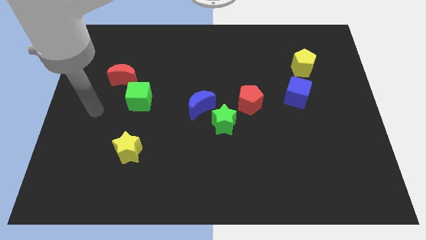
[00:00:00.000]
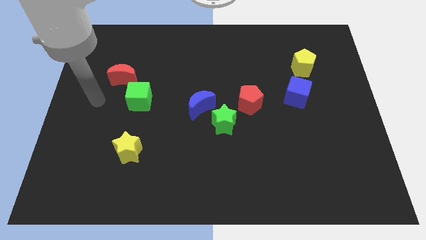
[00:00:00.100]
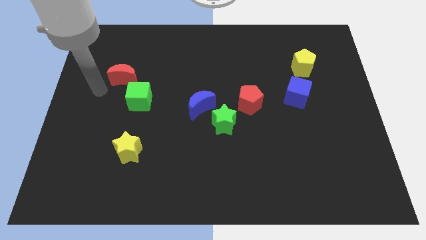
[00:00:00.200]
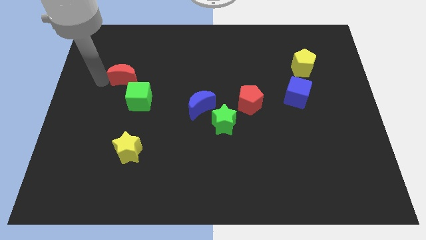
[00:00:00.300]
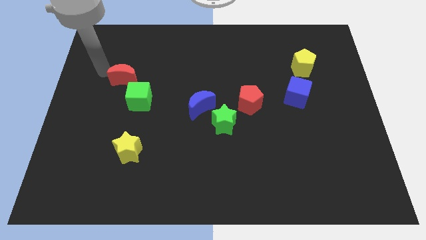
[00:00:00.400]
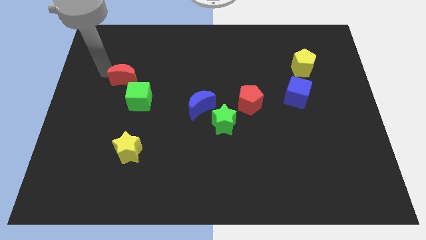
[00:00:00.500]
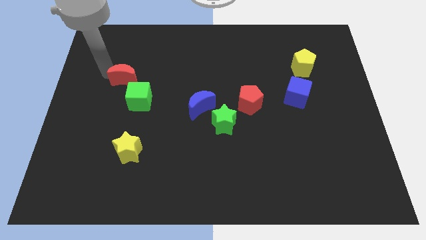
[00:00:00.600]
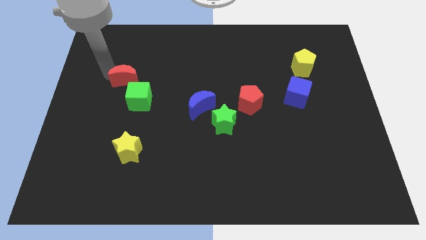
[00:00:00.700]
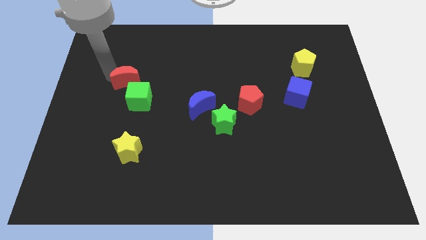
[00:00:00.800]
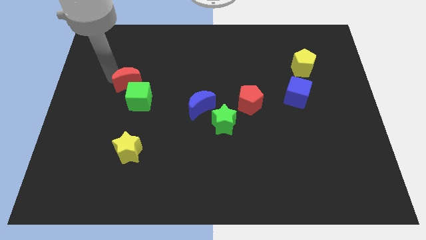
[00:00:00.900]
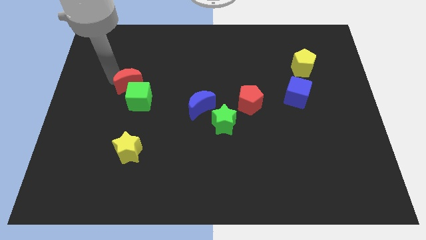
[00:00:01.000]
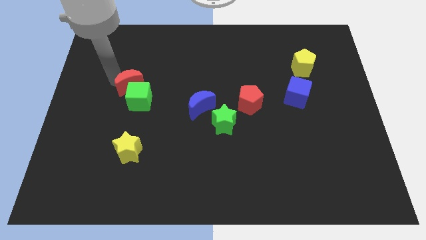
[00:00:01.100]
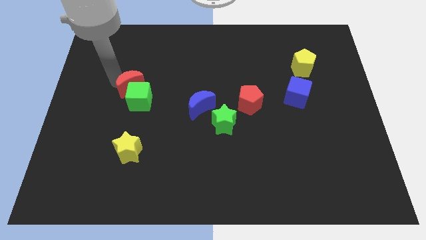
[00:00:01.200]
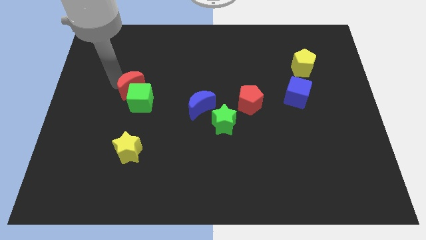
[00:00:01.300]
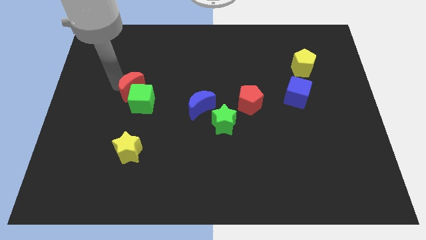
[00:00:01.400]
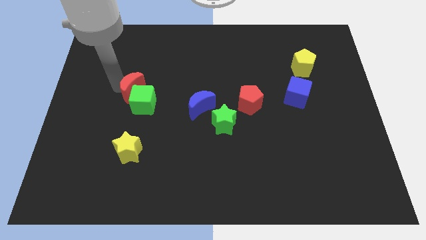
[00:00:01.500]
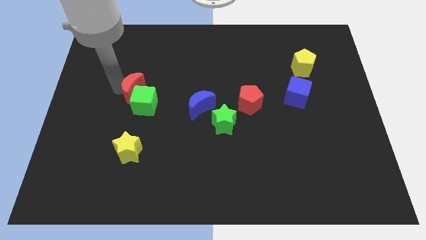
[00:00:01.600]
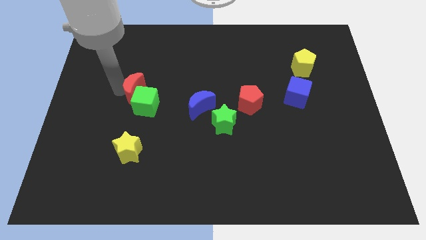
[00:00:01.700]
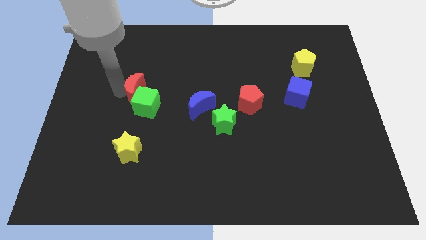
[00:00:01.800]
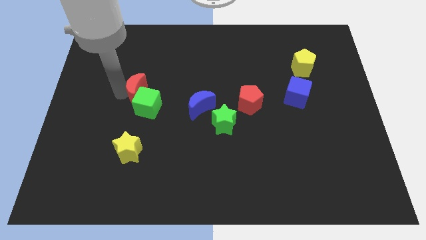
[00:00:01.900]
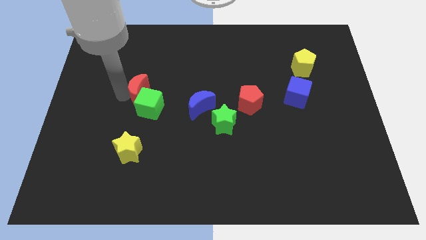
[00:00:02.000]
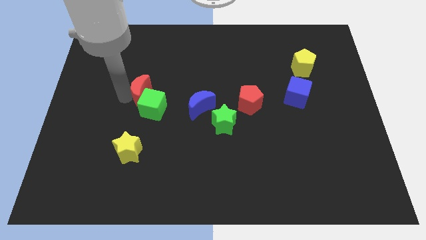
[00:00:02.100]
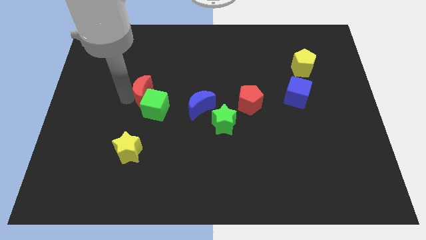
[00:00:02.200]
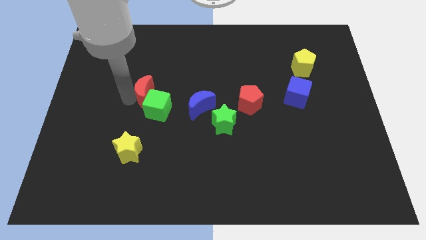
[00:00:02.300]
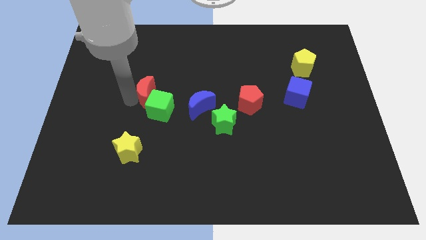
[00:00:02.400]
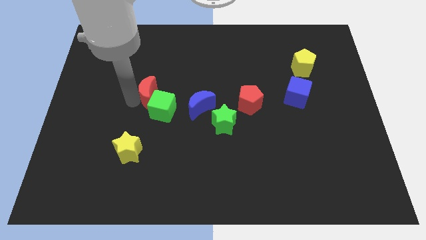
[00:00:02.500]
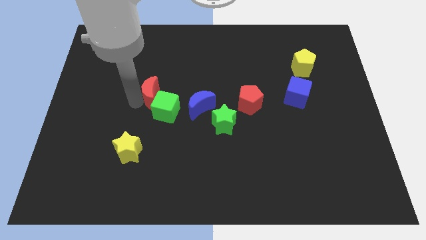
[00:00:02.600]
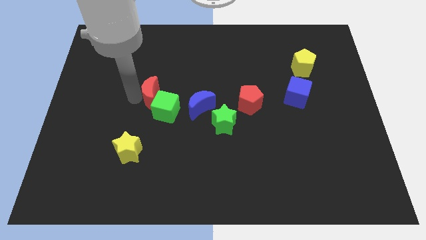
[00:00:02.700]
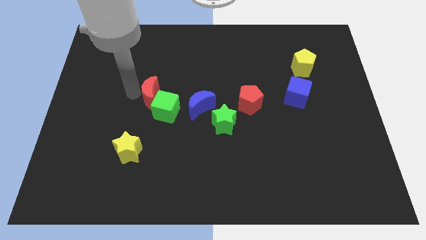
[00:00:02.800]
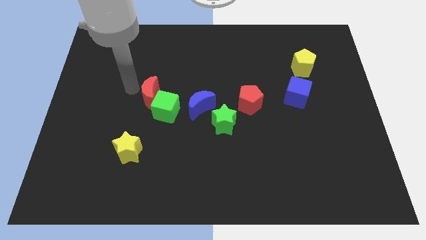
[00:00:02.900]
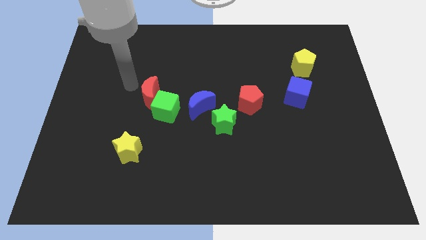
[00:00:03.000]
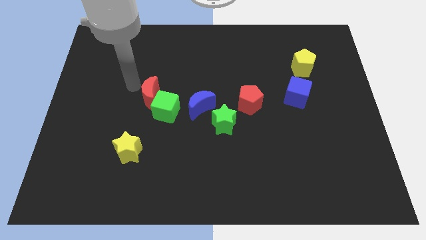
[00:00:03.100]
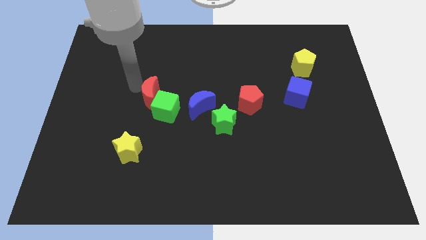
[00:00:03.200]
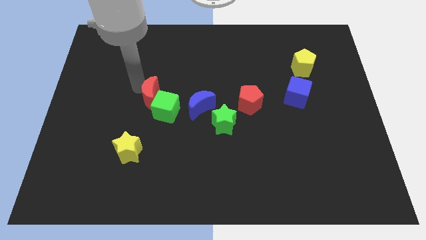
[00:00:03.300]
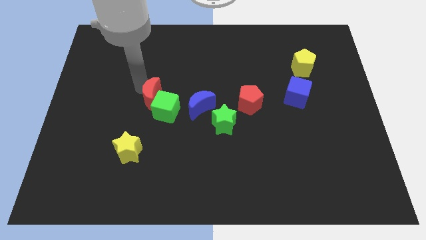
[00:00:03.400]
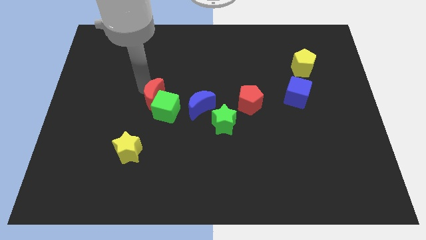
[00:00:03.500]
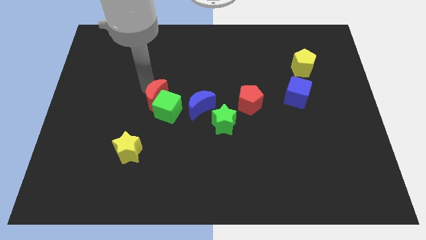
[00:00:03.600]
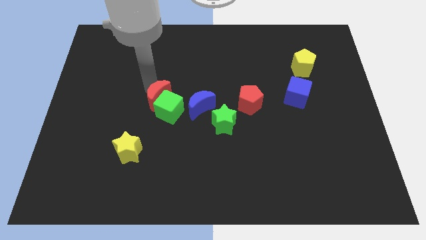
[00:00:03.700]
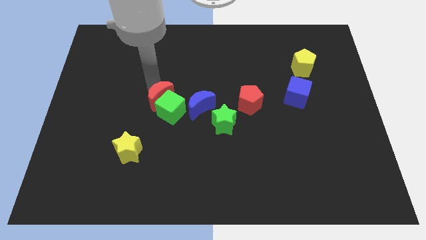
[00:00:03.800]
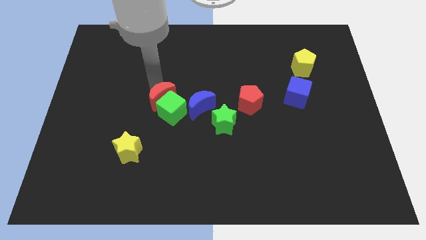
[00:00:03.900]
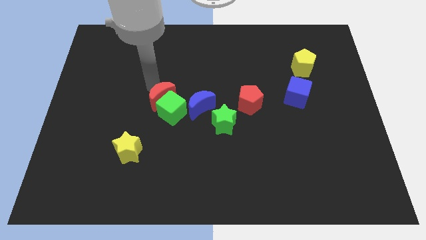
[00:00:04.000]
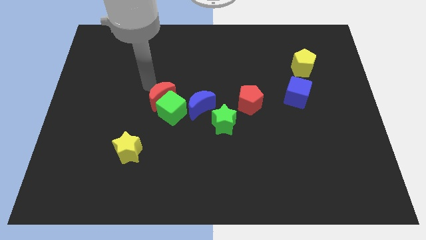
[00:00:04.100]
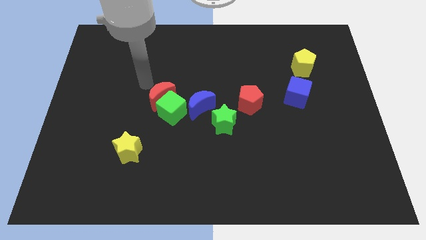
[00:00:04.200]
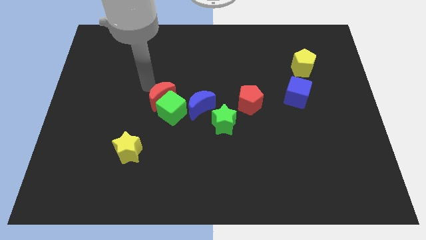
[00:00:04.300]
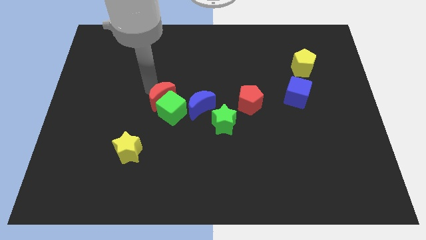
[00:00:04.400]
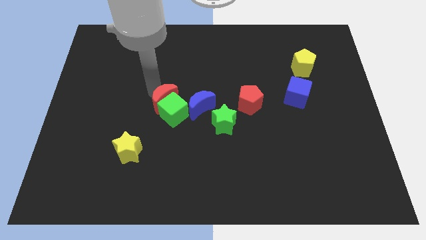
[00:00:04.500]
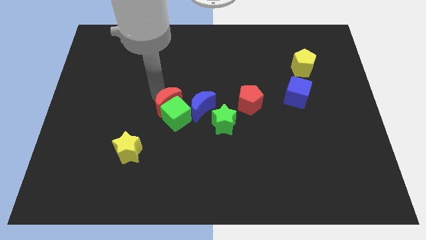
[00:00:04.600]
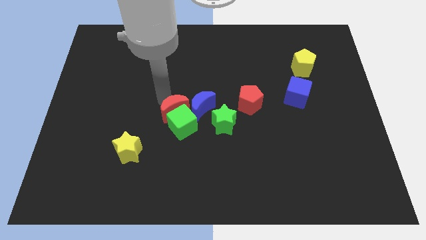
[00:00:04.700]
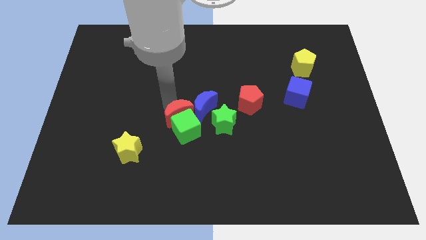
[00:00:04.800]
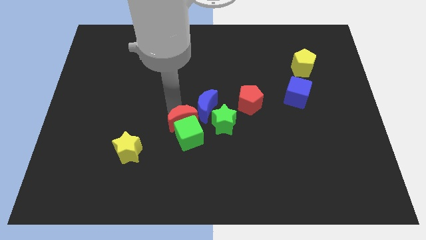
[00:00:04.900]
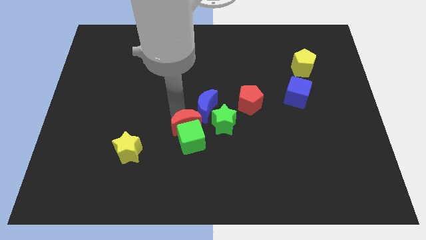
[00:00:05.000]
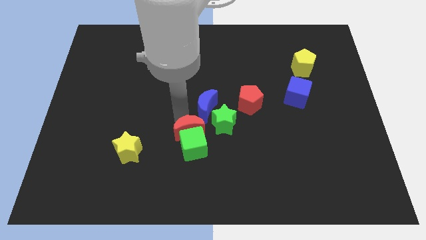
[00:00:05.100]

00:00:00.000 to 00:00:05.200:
put the red moon to the bottom left side of the green star

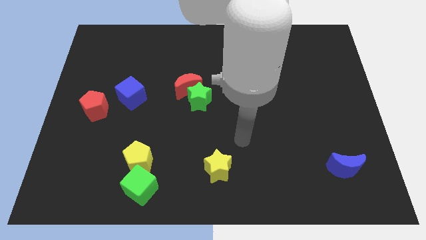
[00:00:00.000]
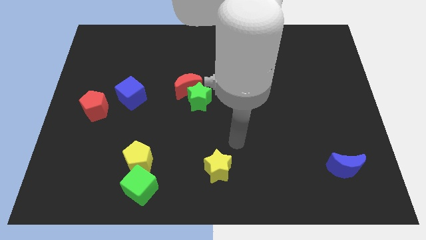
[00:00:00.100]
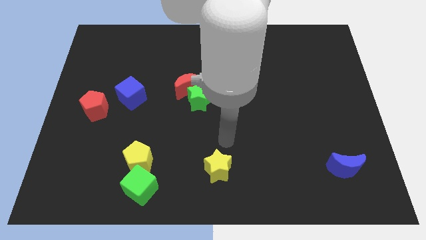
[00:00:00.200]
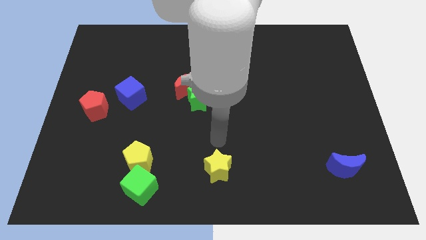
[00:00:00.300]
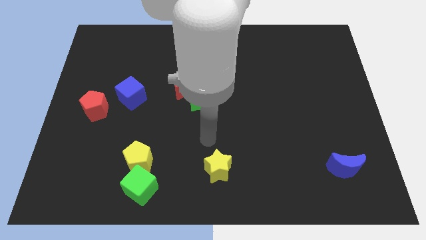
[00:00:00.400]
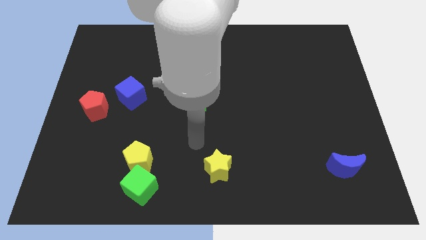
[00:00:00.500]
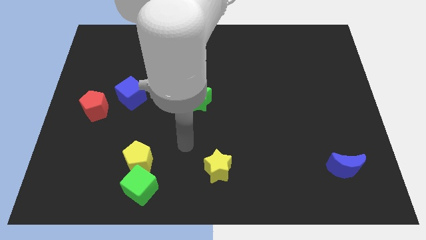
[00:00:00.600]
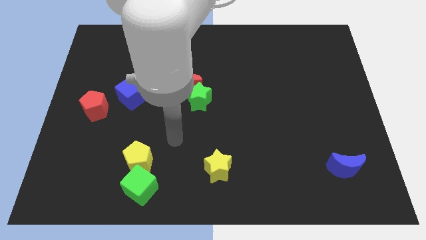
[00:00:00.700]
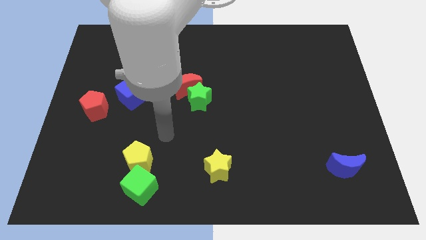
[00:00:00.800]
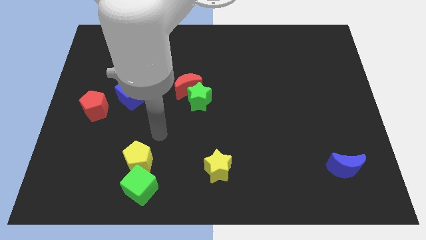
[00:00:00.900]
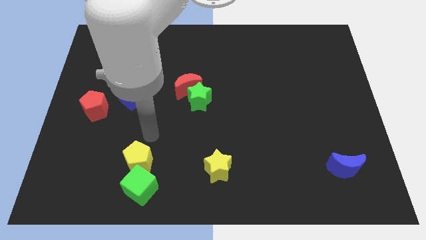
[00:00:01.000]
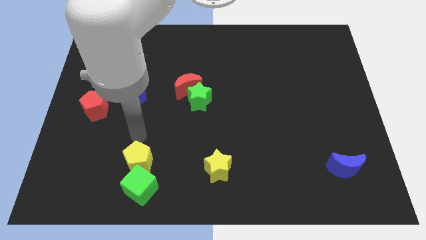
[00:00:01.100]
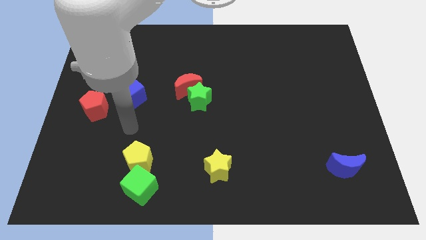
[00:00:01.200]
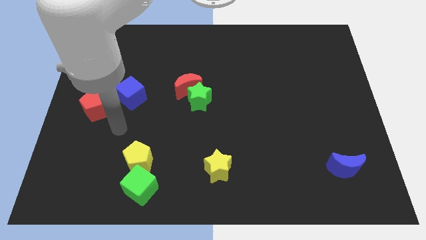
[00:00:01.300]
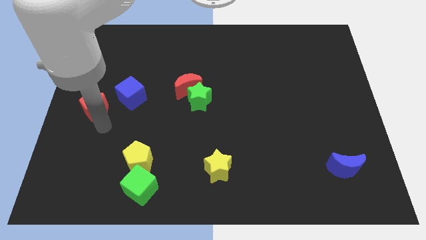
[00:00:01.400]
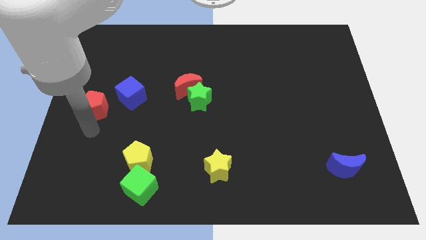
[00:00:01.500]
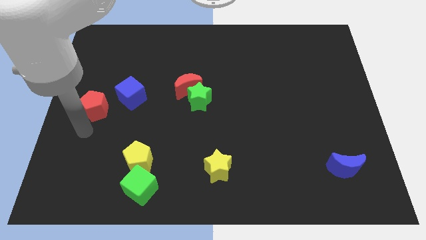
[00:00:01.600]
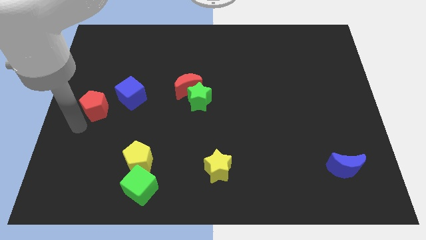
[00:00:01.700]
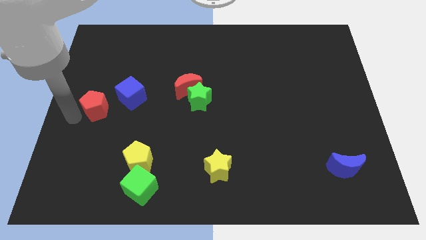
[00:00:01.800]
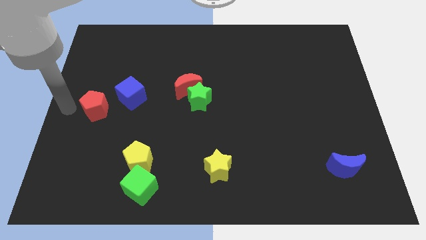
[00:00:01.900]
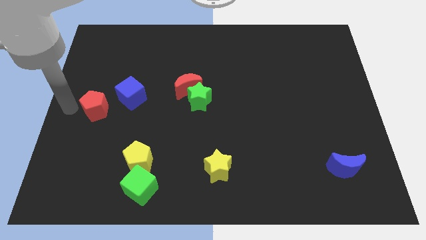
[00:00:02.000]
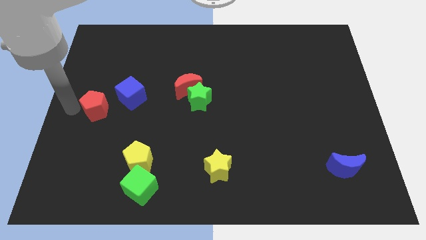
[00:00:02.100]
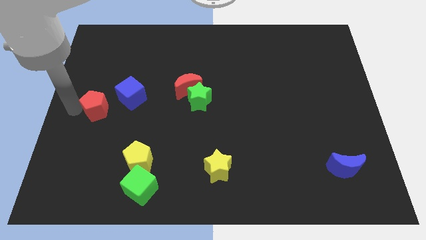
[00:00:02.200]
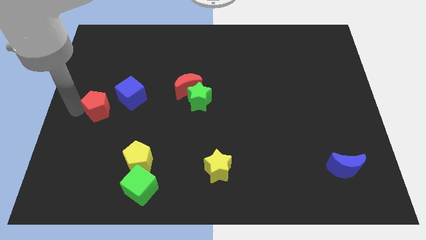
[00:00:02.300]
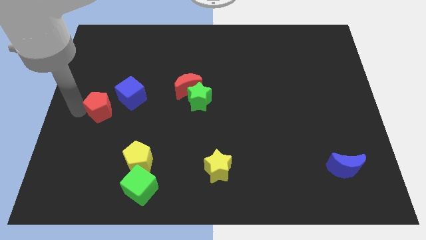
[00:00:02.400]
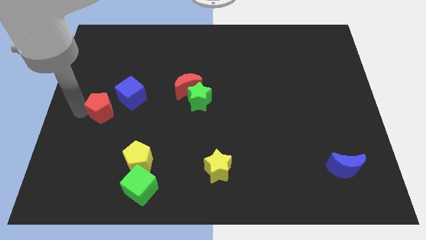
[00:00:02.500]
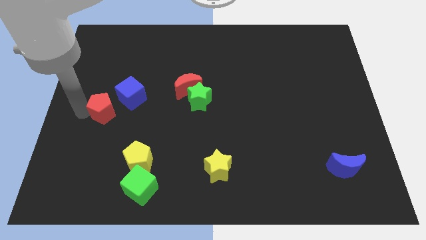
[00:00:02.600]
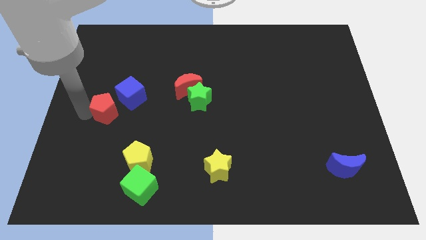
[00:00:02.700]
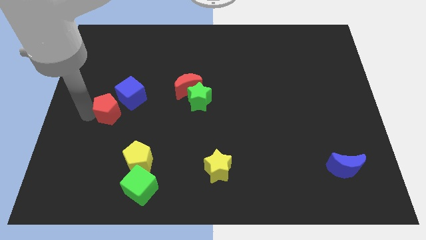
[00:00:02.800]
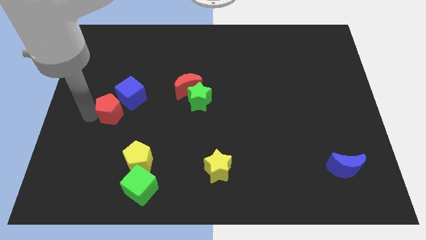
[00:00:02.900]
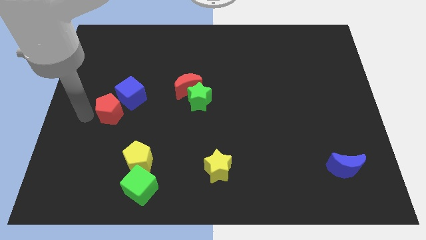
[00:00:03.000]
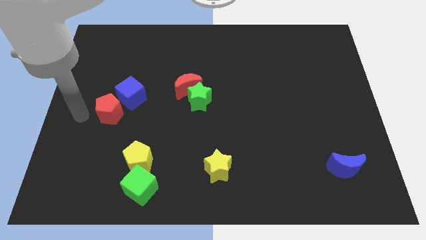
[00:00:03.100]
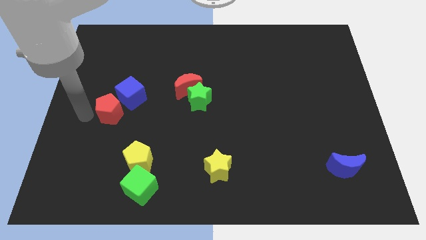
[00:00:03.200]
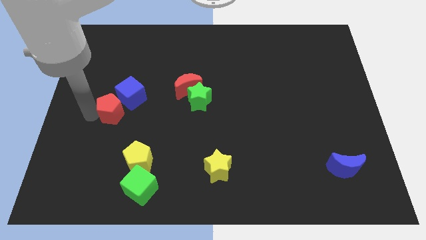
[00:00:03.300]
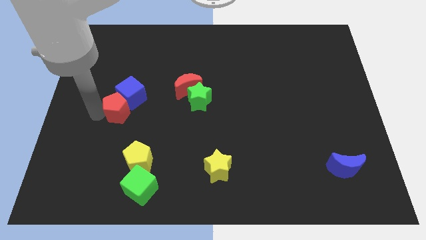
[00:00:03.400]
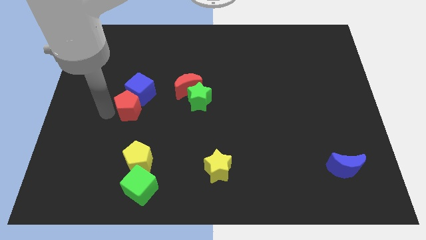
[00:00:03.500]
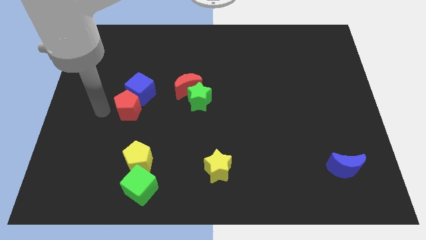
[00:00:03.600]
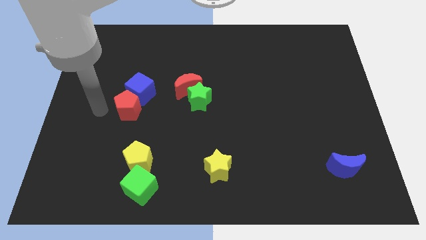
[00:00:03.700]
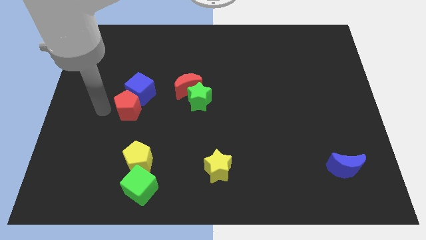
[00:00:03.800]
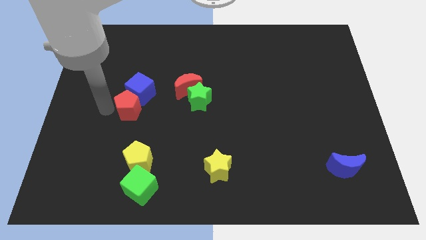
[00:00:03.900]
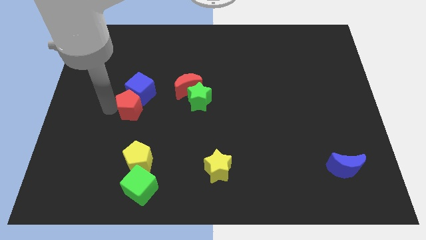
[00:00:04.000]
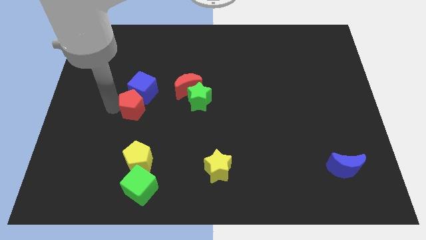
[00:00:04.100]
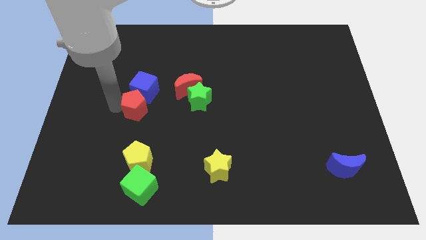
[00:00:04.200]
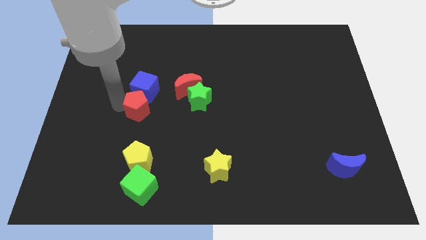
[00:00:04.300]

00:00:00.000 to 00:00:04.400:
push the red pentagon diagonally down and to the right of the blue cube
